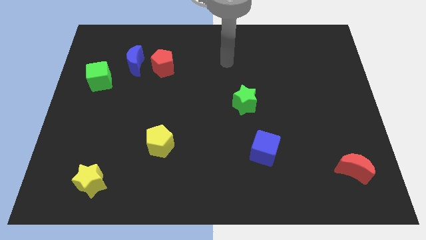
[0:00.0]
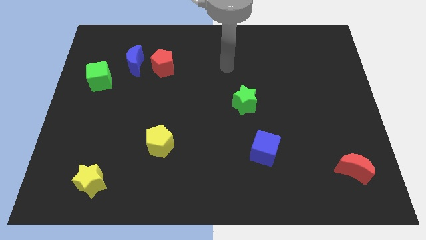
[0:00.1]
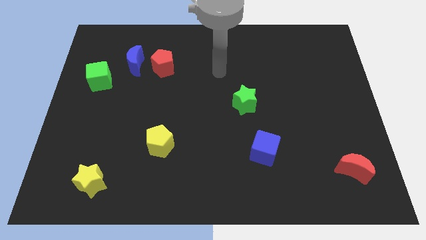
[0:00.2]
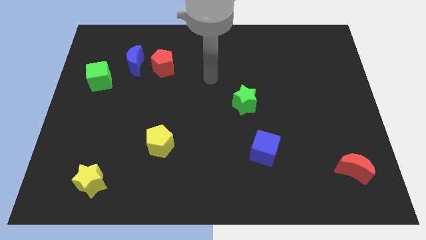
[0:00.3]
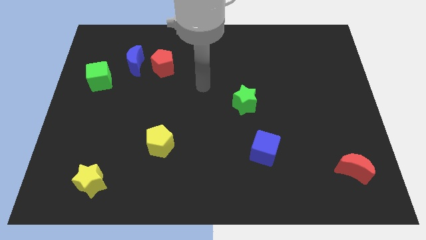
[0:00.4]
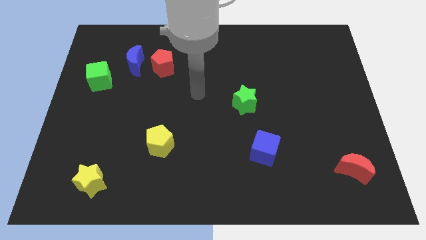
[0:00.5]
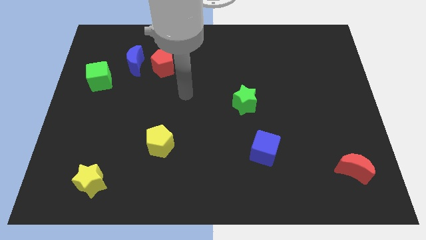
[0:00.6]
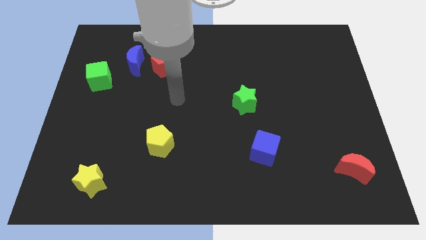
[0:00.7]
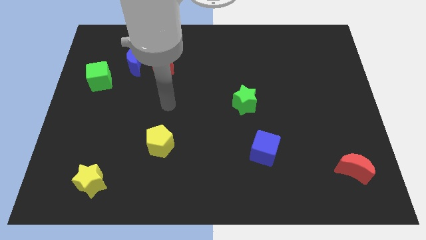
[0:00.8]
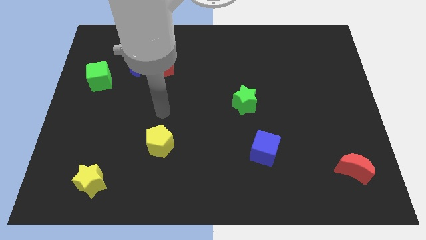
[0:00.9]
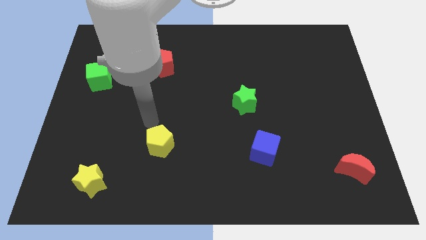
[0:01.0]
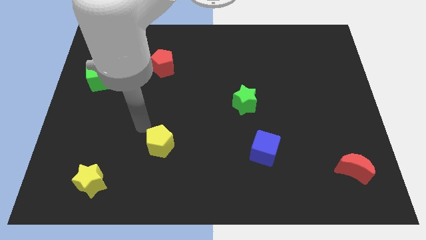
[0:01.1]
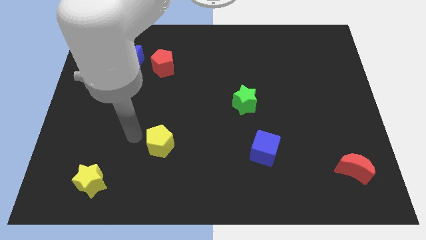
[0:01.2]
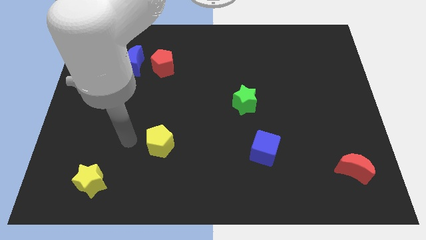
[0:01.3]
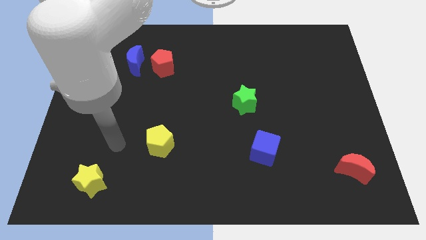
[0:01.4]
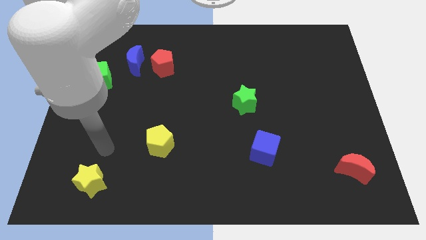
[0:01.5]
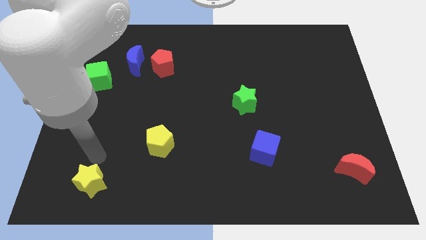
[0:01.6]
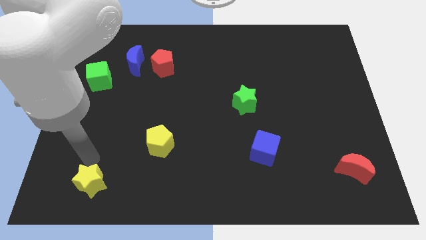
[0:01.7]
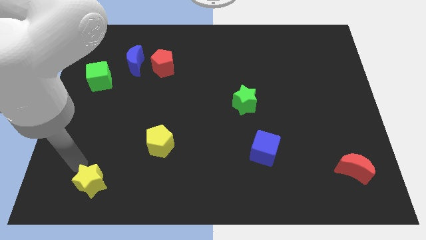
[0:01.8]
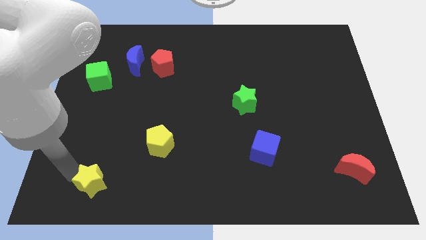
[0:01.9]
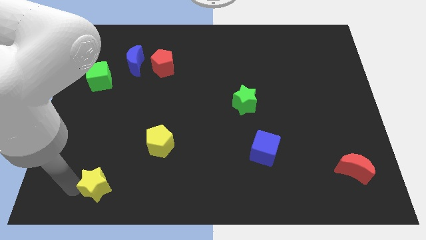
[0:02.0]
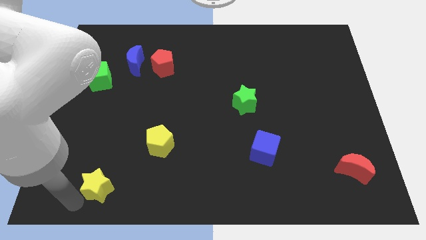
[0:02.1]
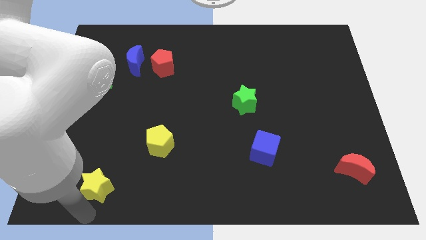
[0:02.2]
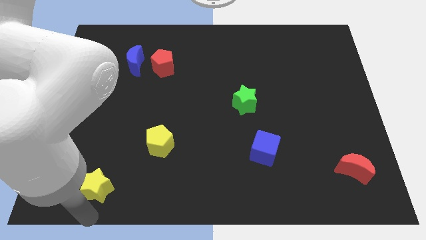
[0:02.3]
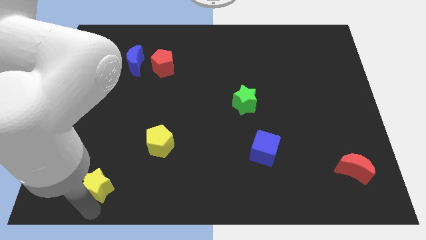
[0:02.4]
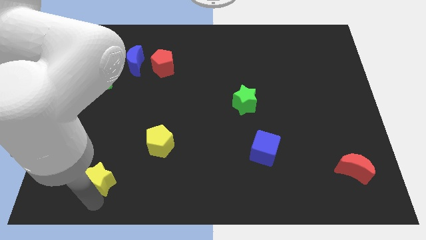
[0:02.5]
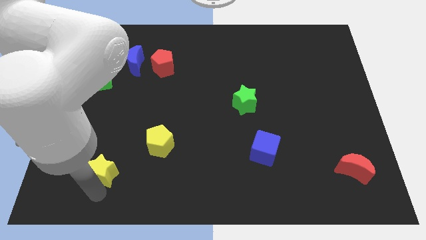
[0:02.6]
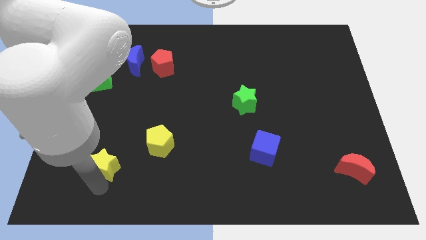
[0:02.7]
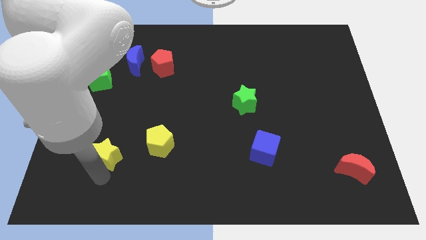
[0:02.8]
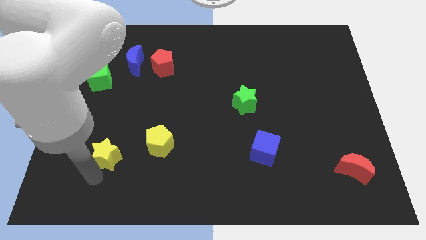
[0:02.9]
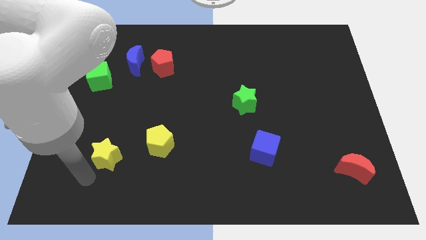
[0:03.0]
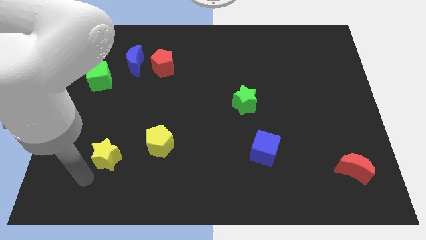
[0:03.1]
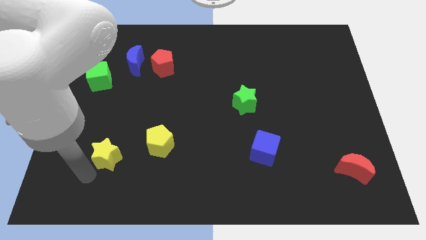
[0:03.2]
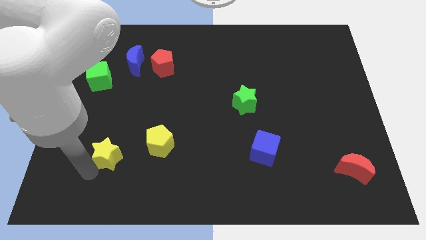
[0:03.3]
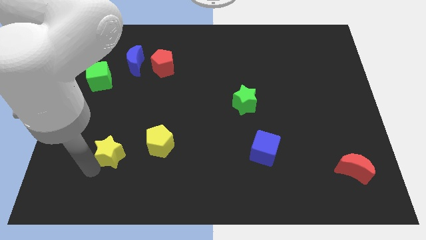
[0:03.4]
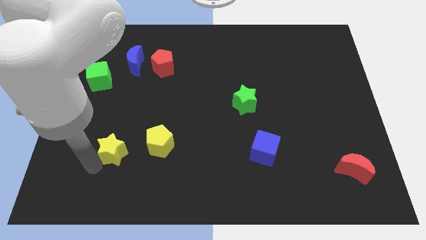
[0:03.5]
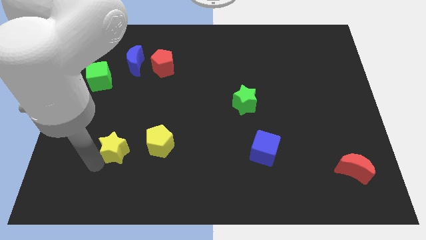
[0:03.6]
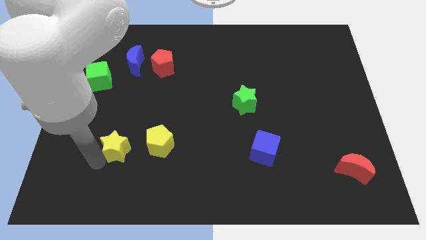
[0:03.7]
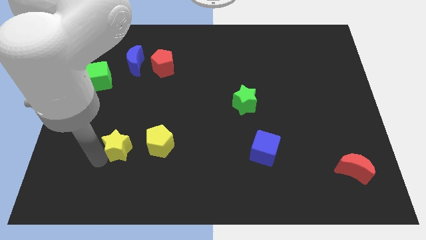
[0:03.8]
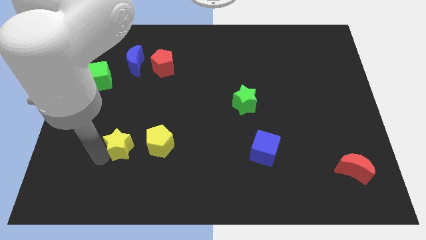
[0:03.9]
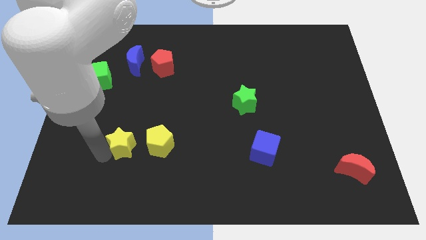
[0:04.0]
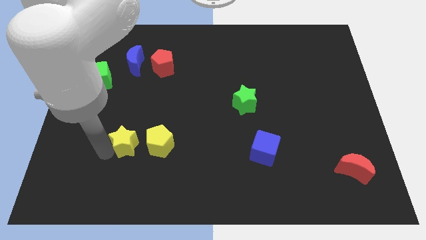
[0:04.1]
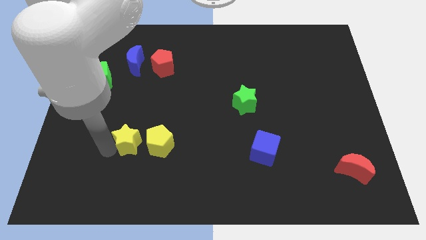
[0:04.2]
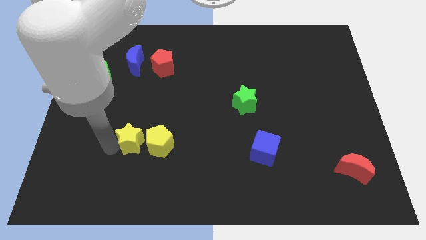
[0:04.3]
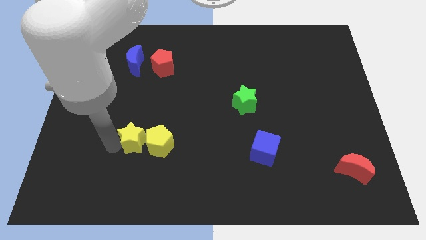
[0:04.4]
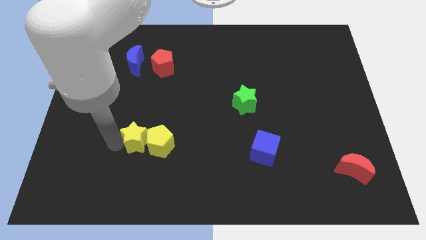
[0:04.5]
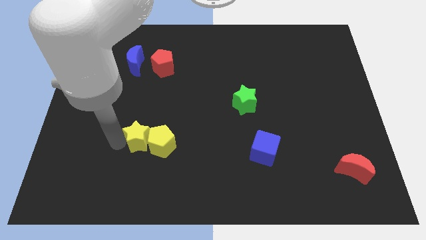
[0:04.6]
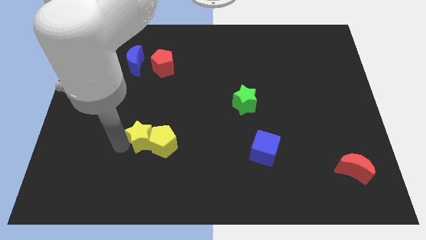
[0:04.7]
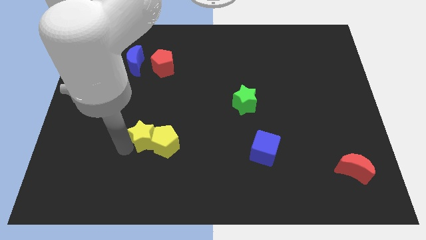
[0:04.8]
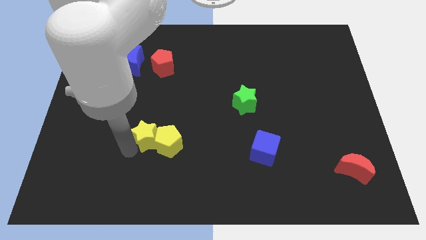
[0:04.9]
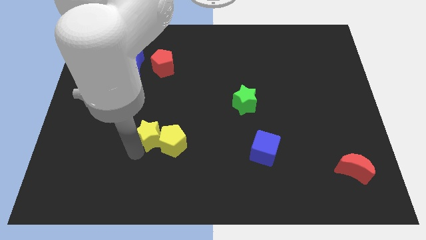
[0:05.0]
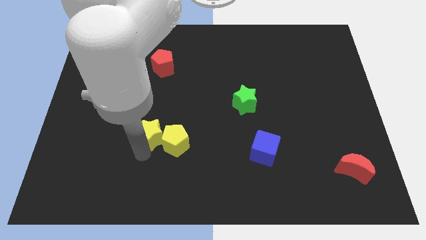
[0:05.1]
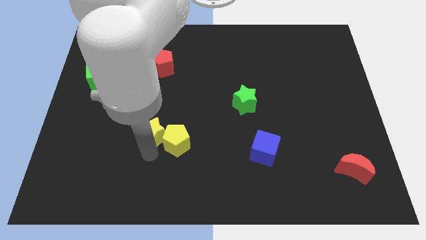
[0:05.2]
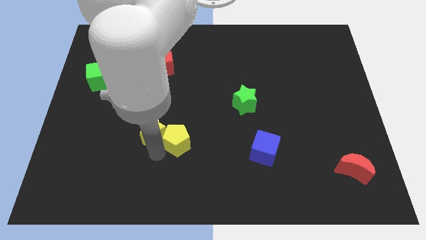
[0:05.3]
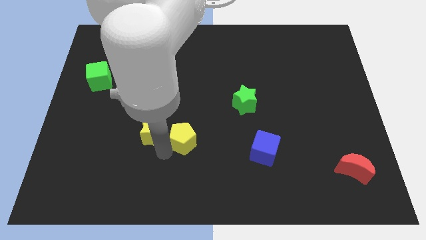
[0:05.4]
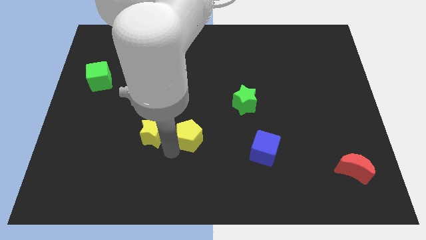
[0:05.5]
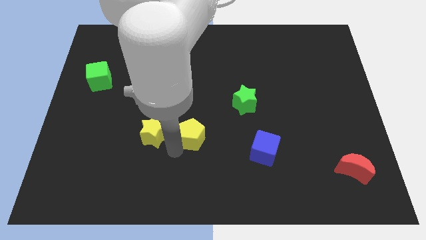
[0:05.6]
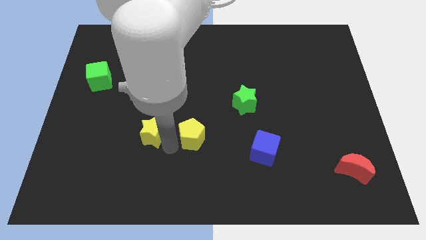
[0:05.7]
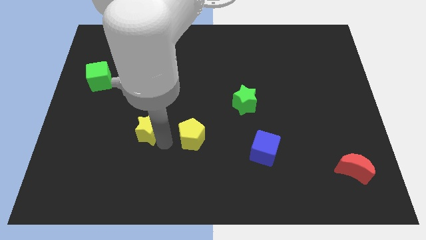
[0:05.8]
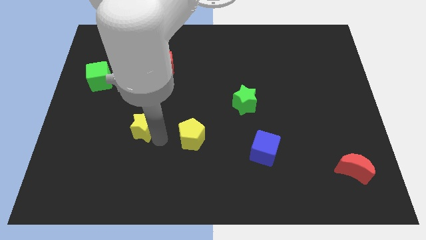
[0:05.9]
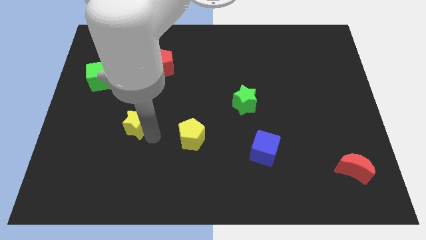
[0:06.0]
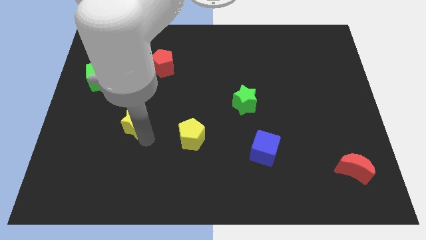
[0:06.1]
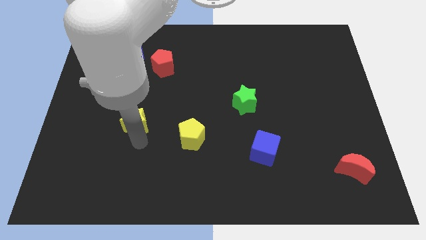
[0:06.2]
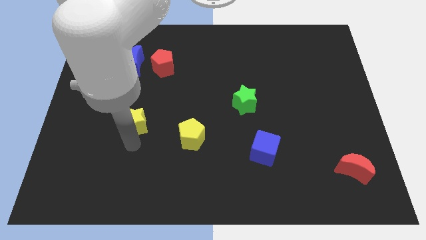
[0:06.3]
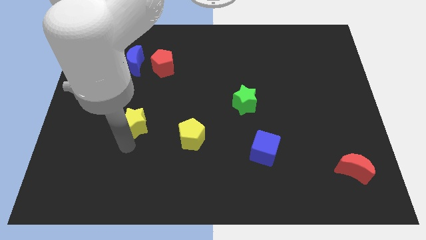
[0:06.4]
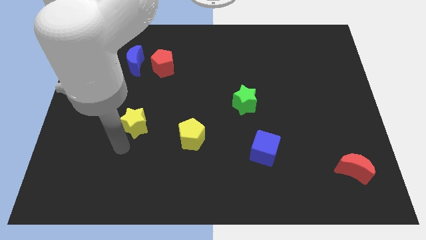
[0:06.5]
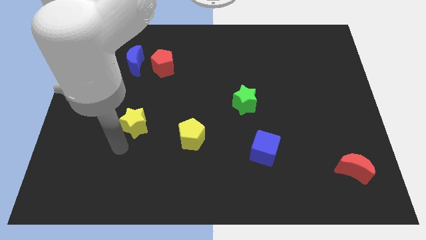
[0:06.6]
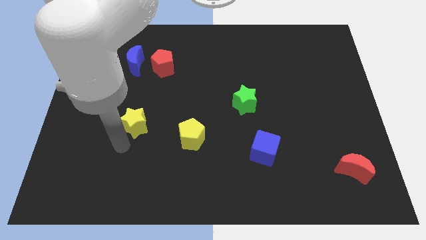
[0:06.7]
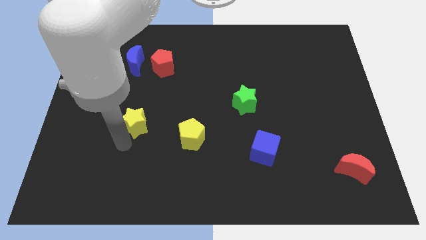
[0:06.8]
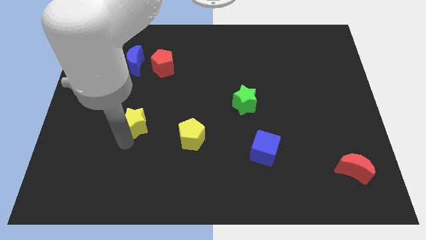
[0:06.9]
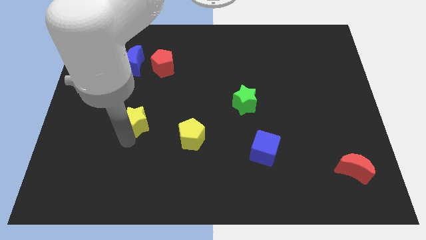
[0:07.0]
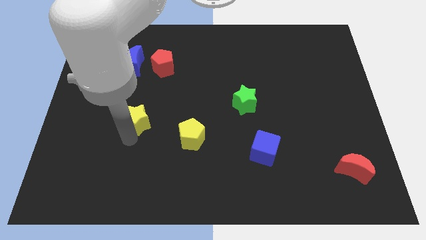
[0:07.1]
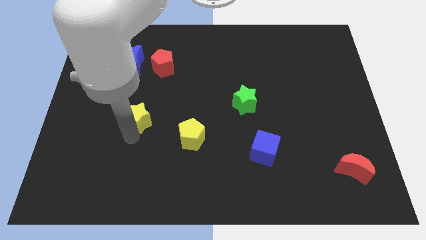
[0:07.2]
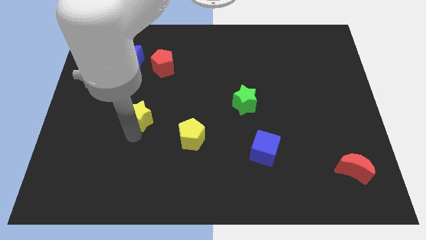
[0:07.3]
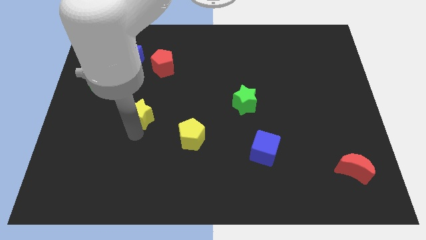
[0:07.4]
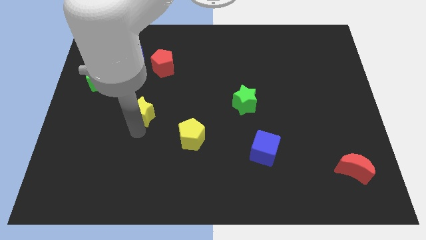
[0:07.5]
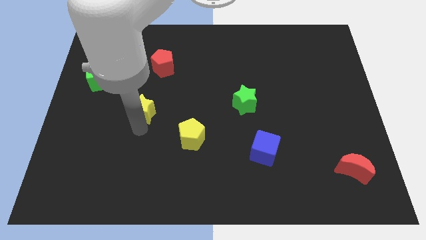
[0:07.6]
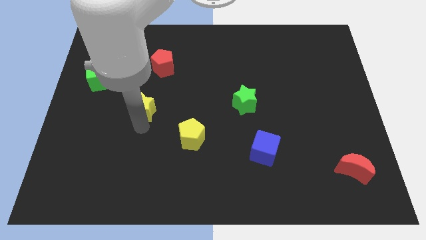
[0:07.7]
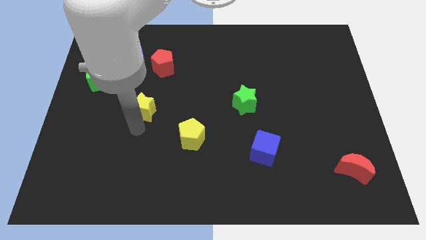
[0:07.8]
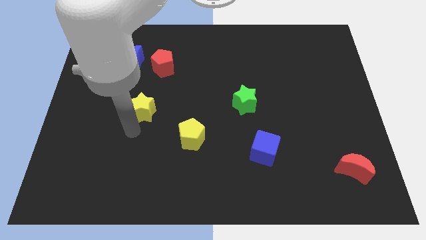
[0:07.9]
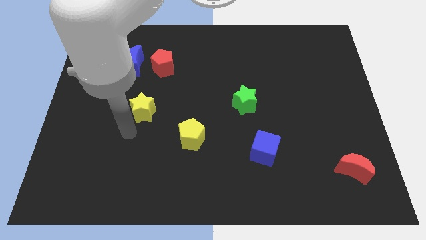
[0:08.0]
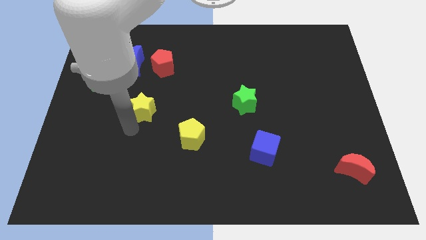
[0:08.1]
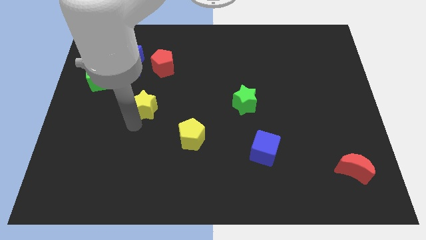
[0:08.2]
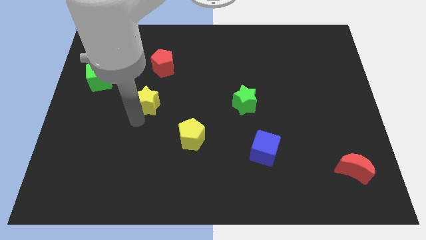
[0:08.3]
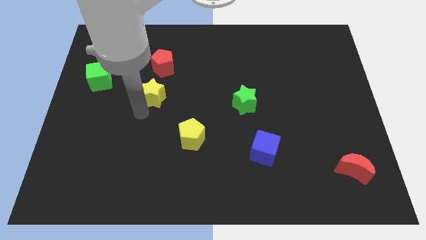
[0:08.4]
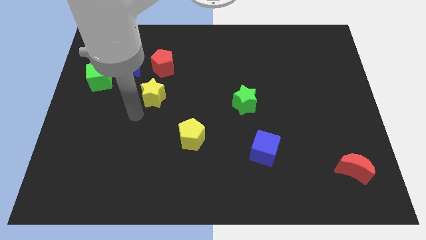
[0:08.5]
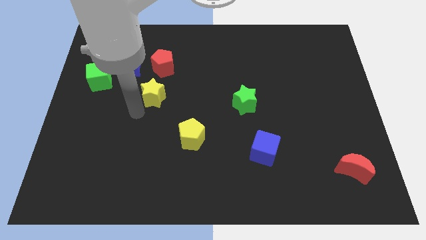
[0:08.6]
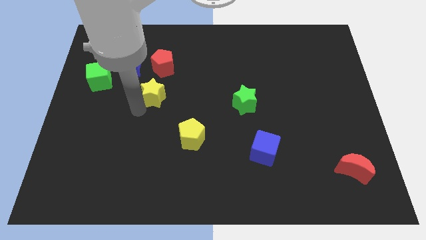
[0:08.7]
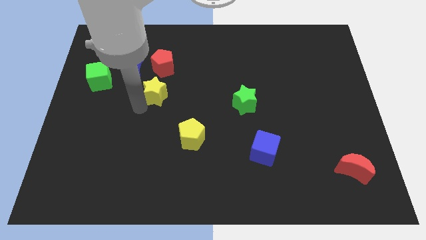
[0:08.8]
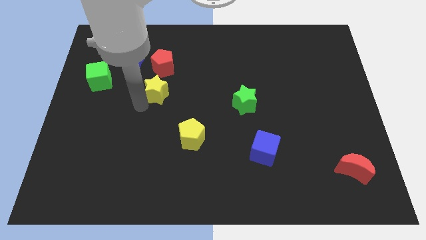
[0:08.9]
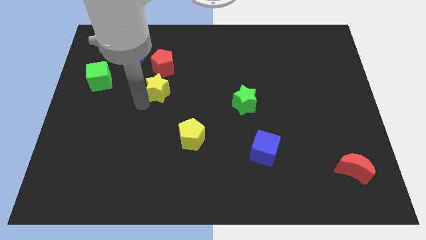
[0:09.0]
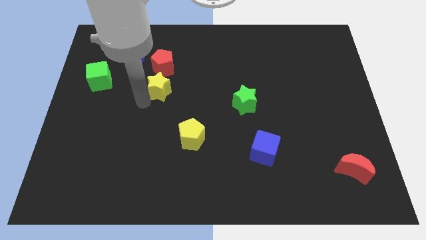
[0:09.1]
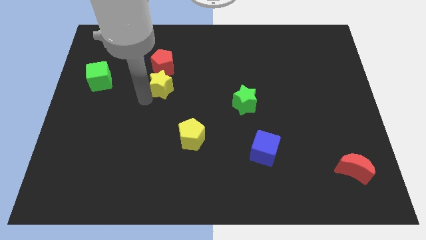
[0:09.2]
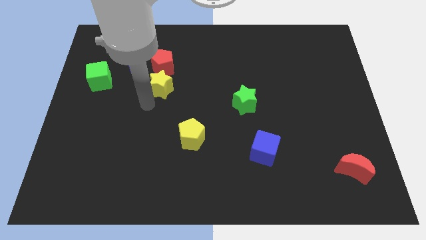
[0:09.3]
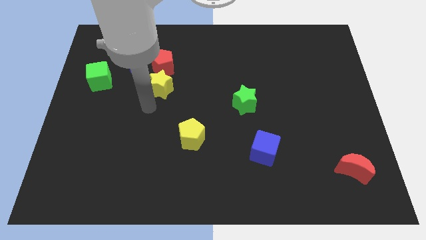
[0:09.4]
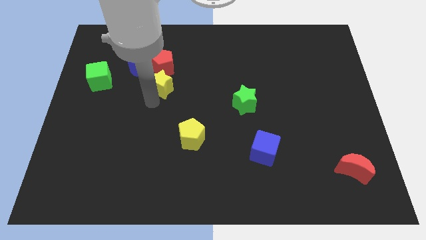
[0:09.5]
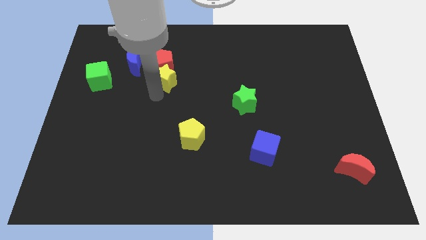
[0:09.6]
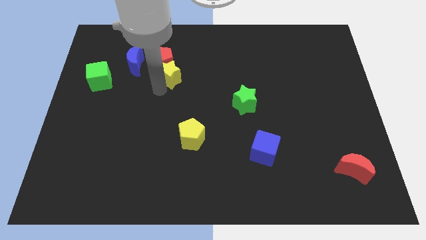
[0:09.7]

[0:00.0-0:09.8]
slide the yellow star to the right of the blue moon
